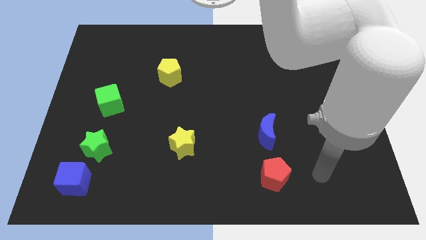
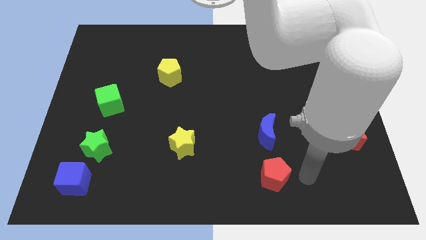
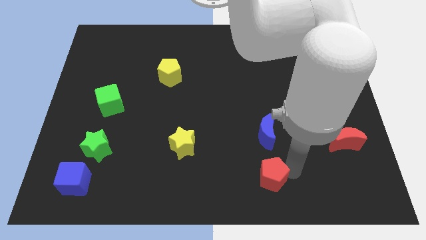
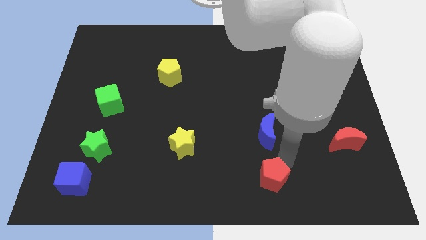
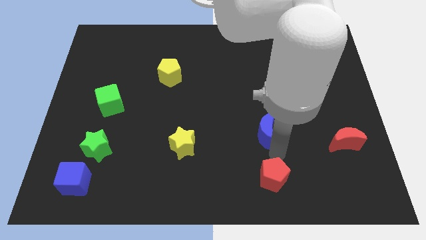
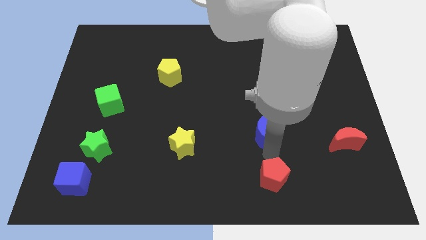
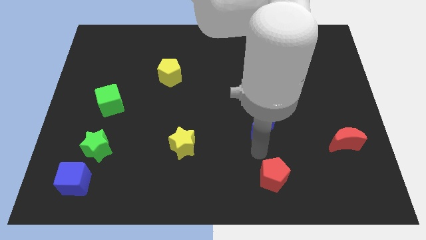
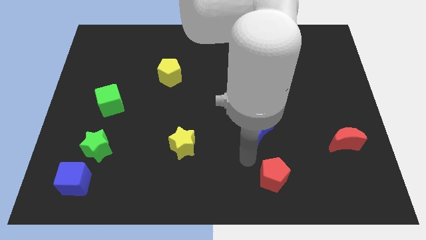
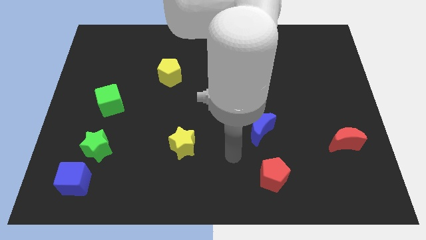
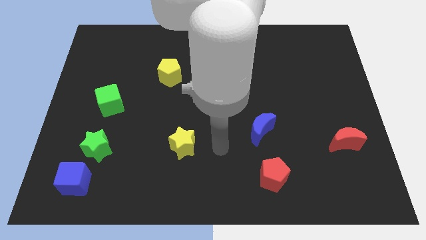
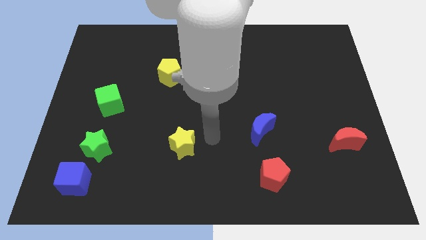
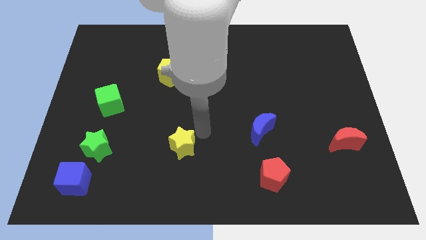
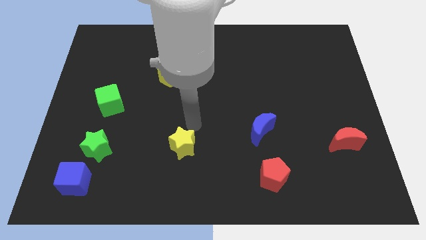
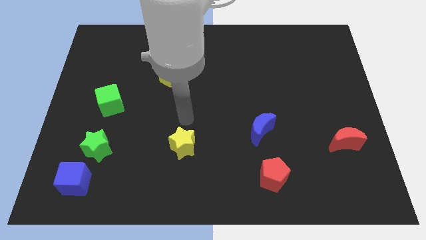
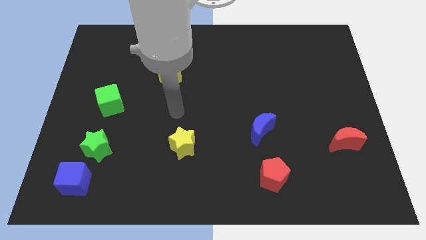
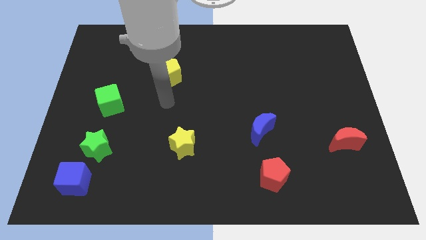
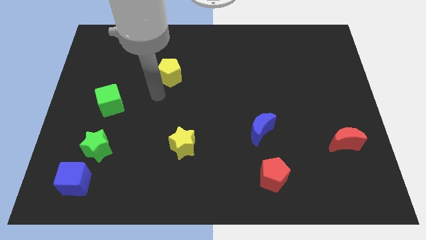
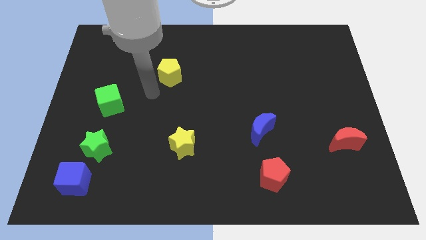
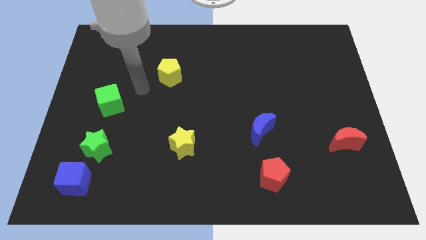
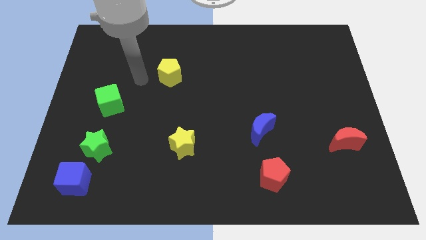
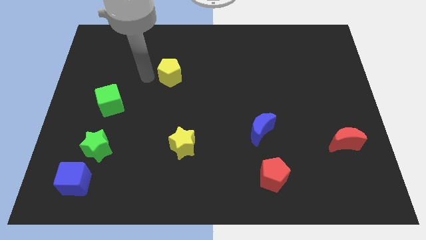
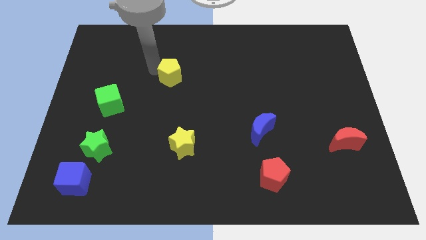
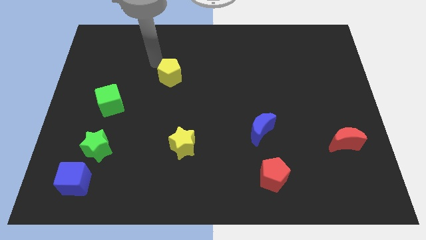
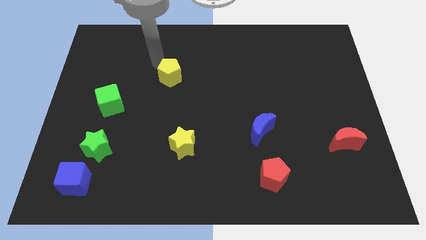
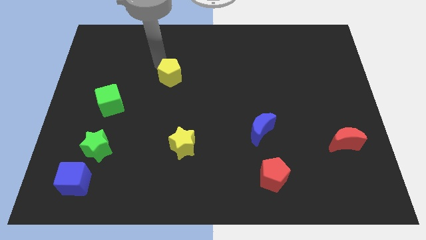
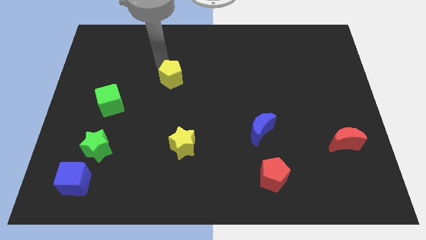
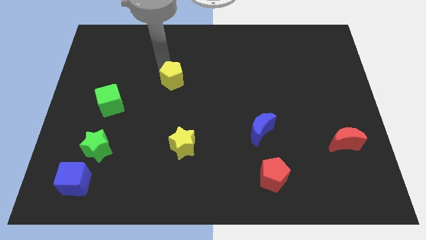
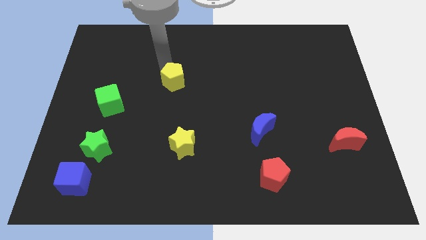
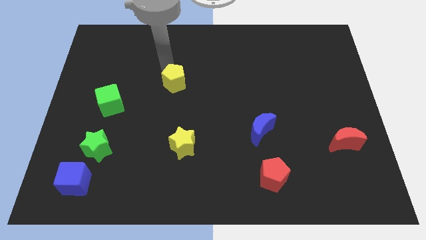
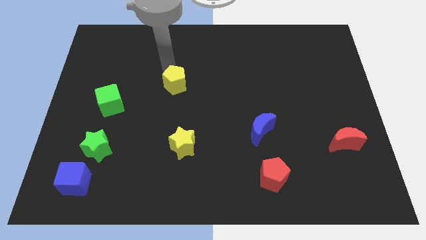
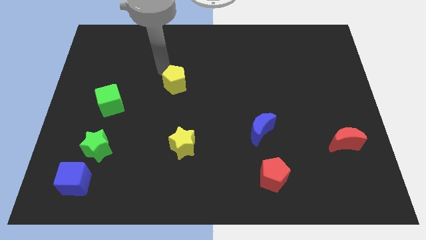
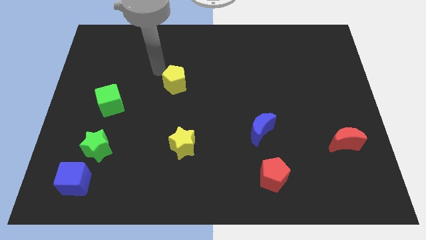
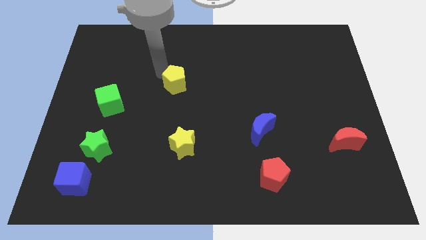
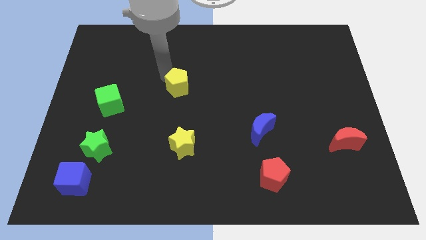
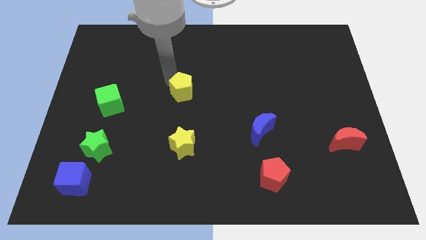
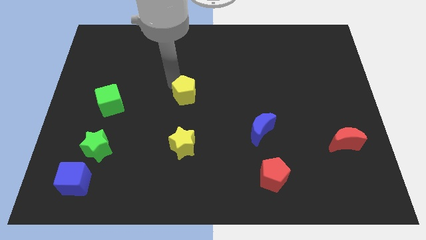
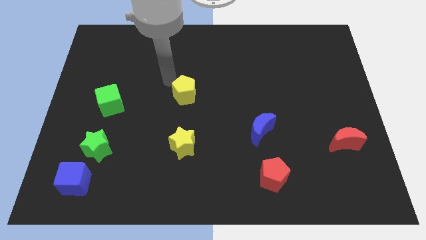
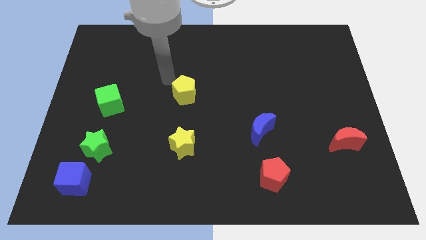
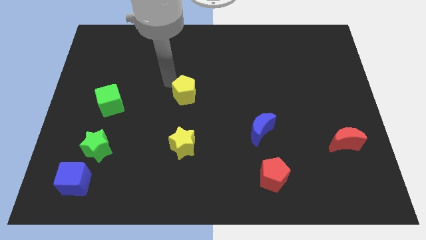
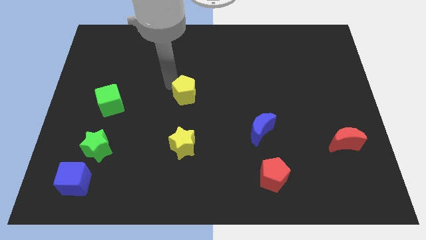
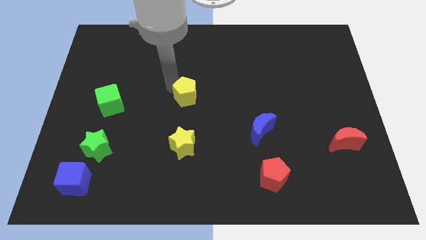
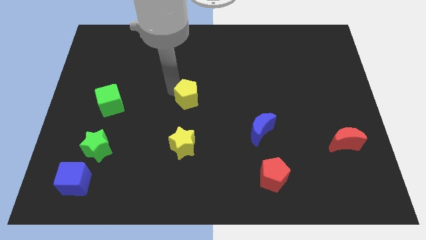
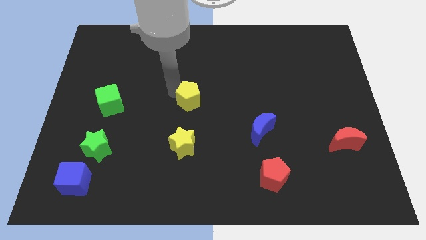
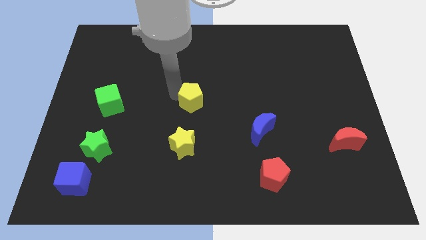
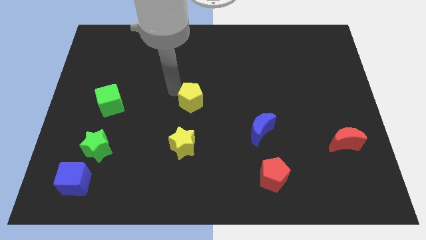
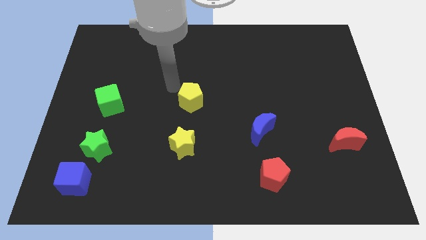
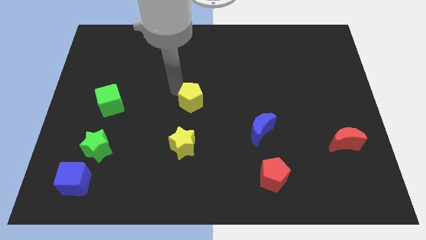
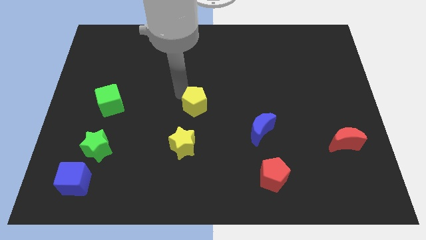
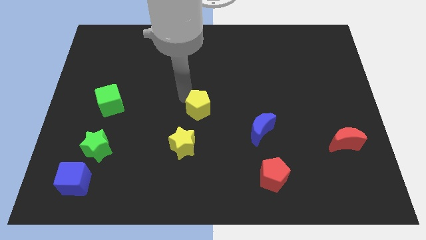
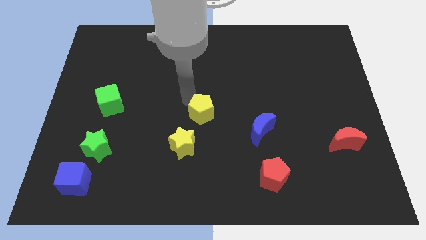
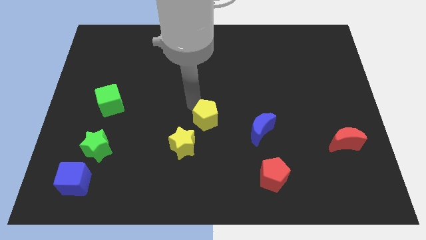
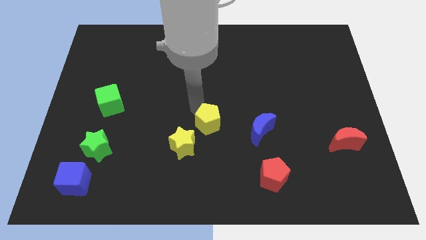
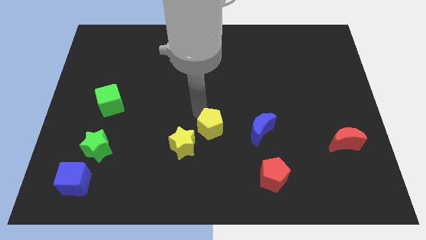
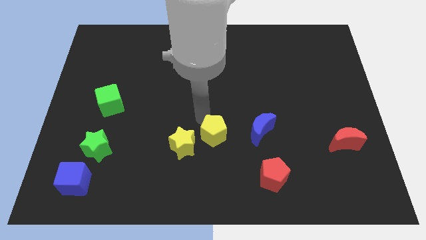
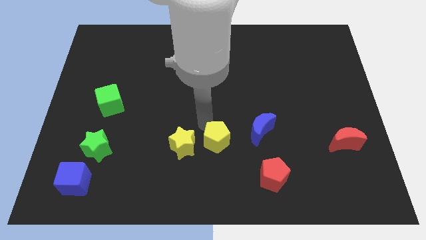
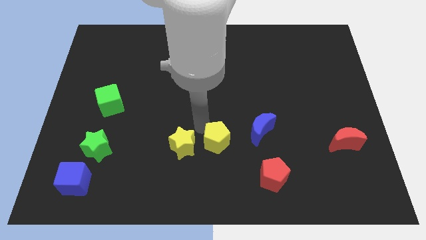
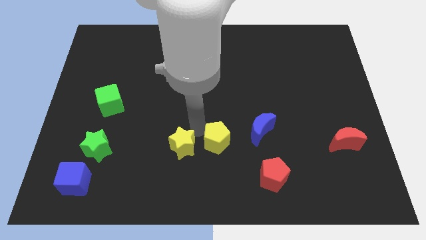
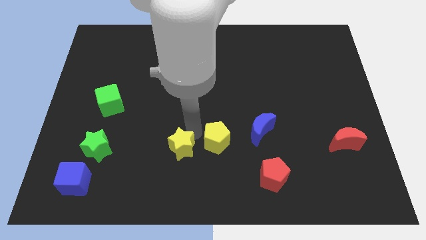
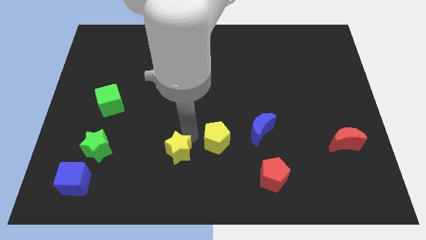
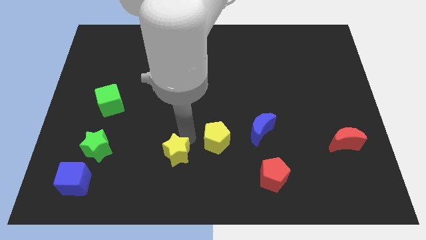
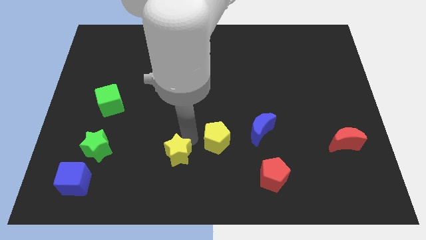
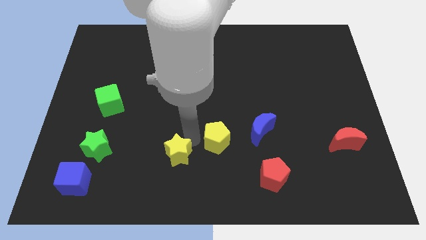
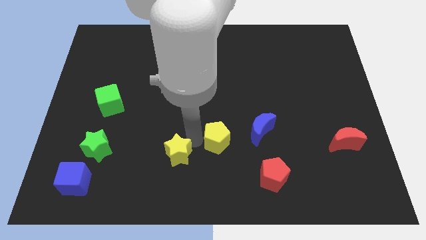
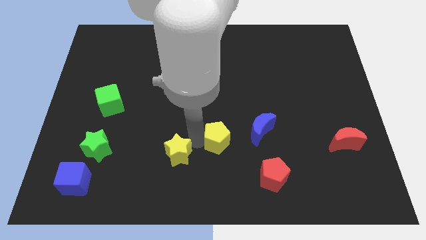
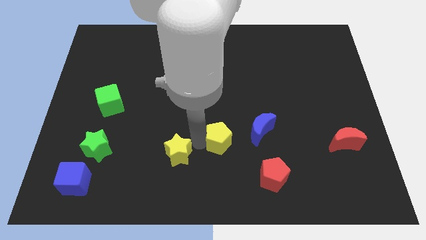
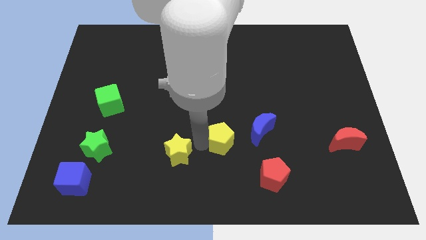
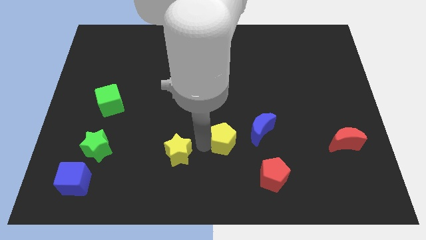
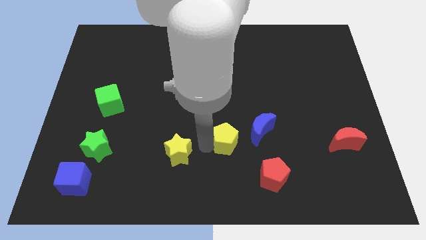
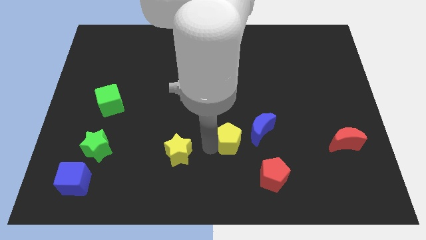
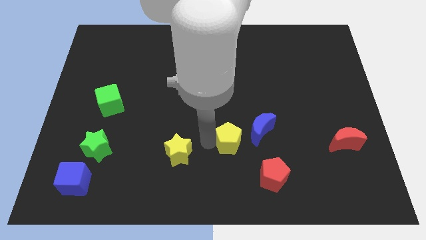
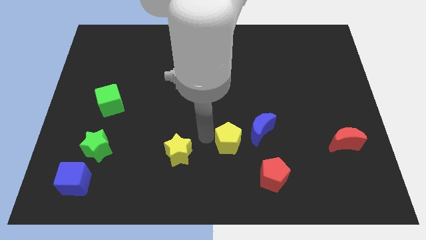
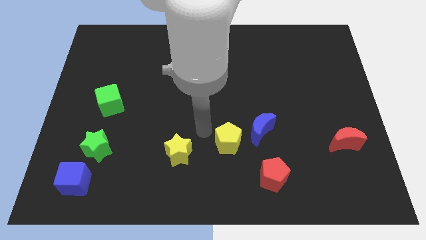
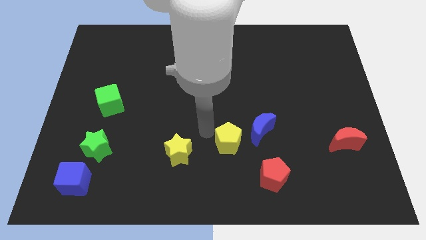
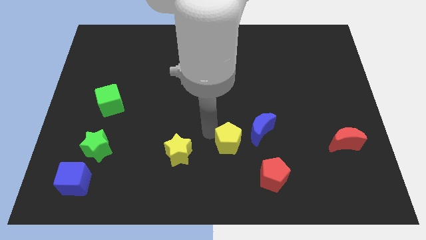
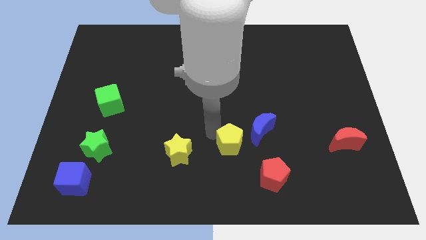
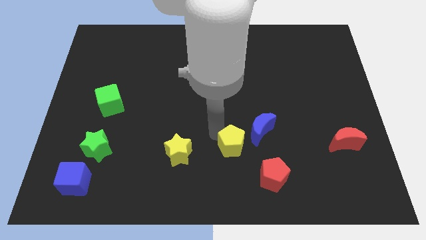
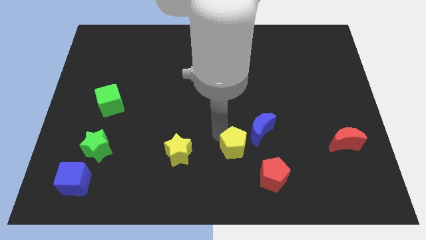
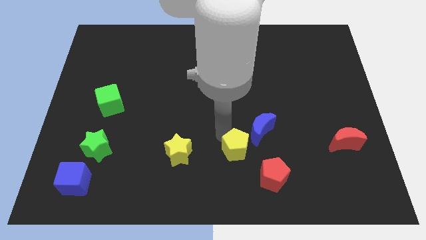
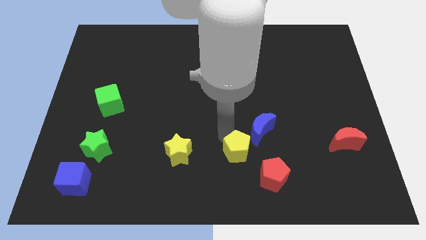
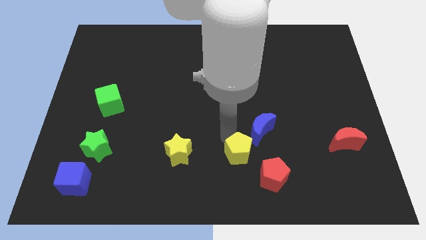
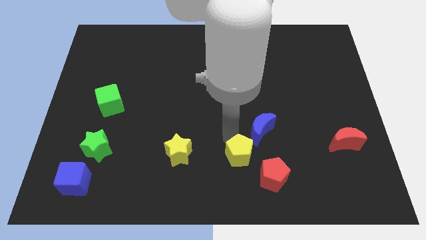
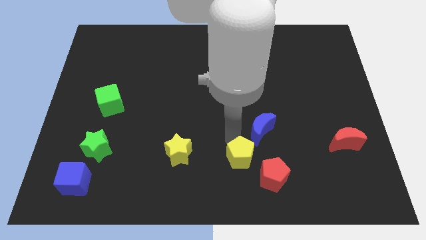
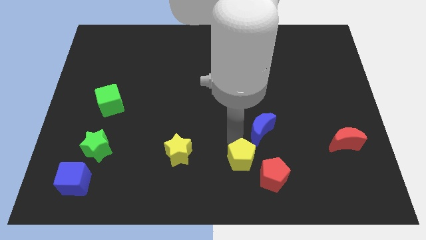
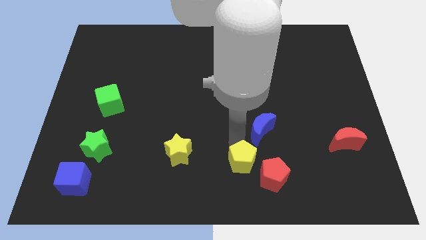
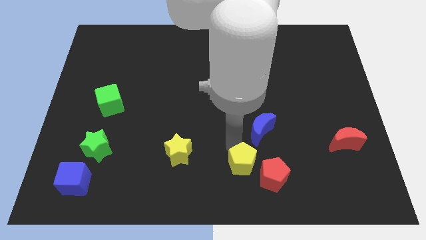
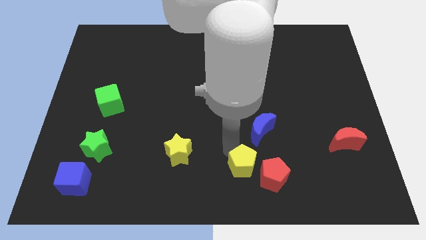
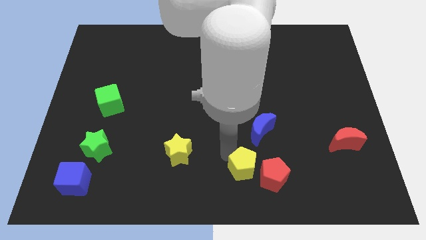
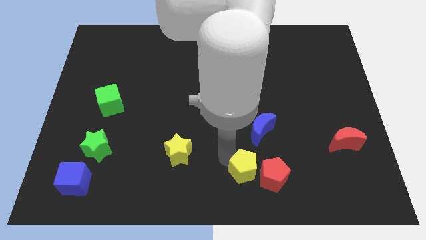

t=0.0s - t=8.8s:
slide the yellow pentagon next to the red pentagon
